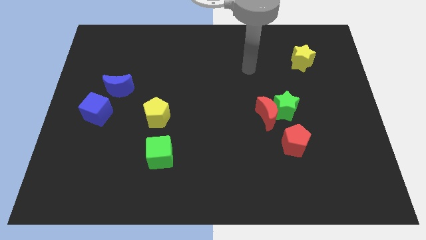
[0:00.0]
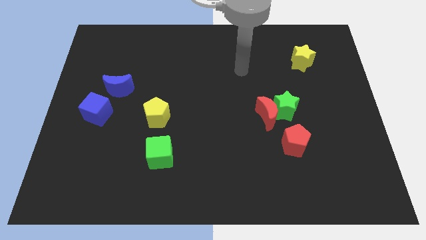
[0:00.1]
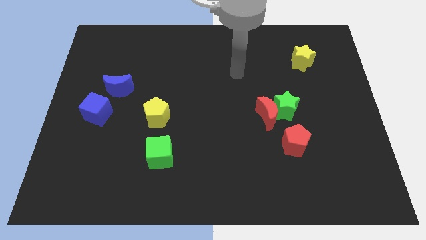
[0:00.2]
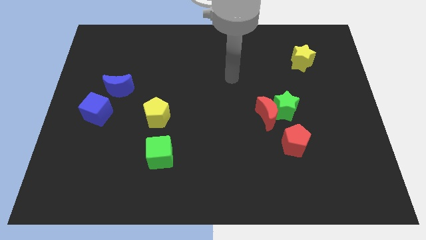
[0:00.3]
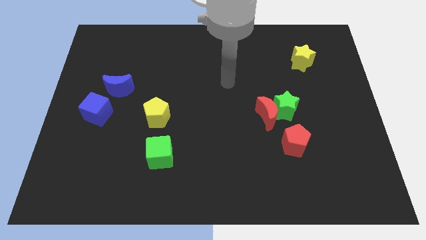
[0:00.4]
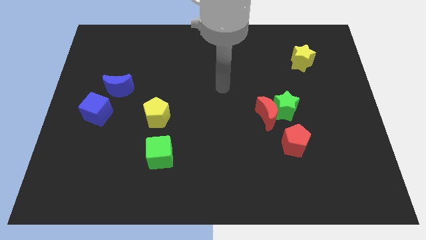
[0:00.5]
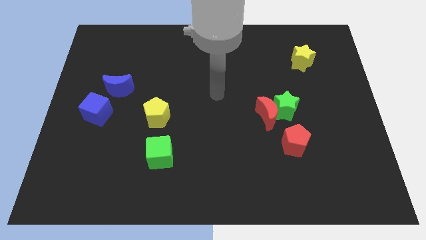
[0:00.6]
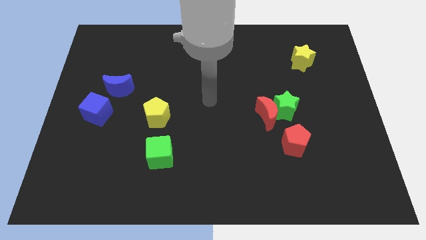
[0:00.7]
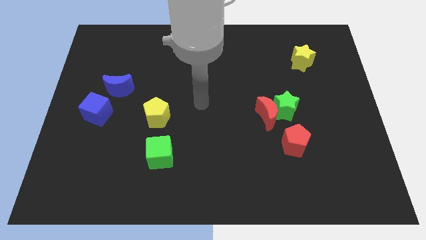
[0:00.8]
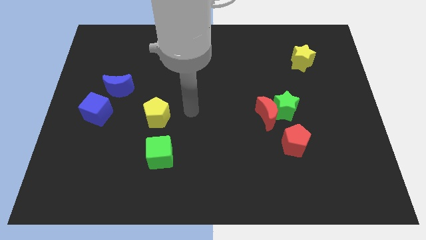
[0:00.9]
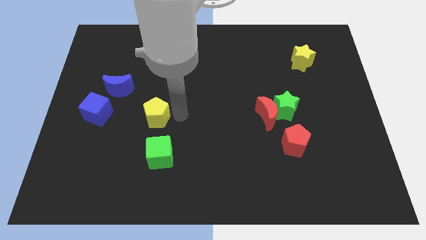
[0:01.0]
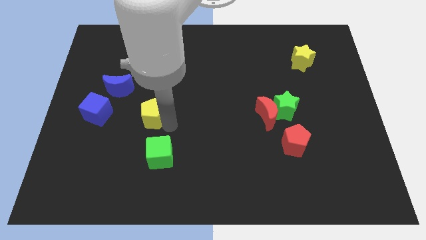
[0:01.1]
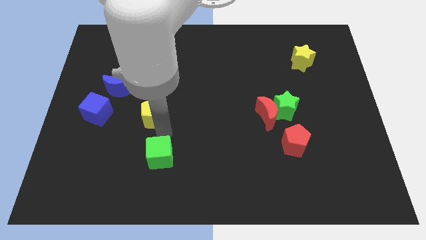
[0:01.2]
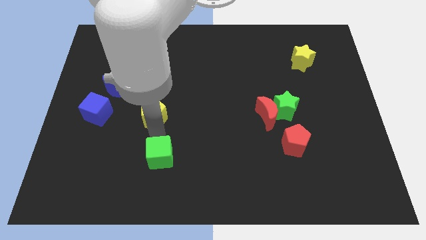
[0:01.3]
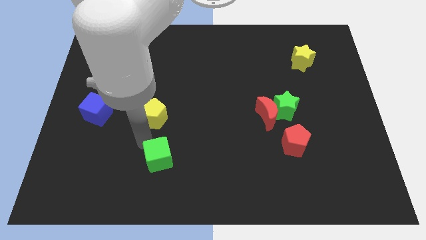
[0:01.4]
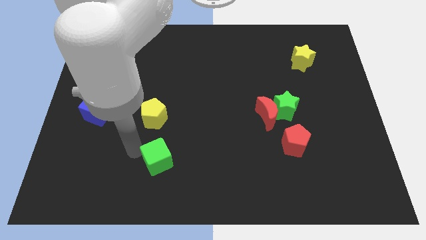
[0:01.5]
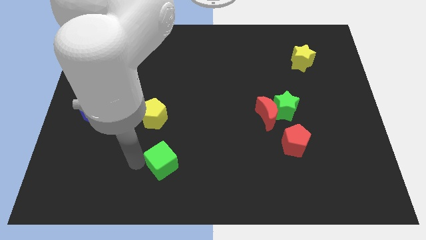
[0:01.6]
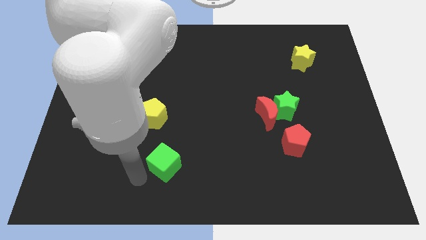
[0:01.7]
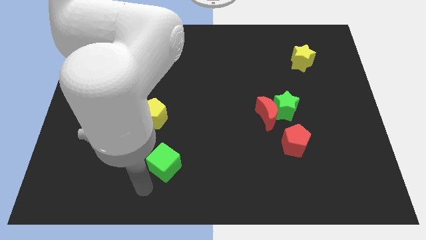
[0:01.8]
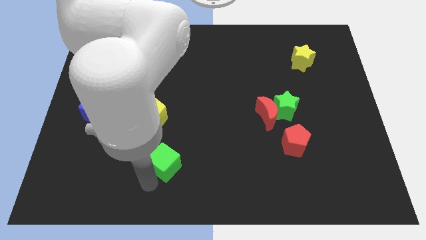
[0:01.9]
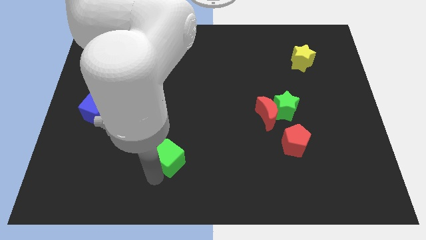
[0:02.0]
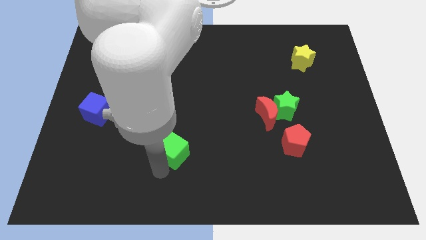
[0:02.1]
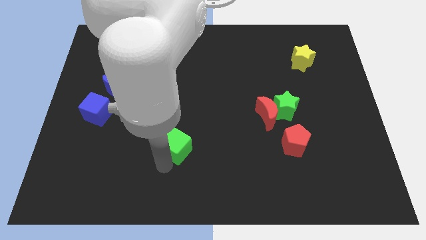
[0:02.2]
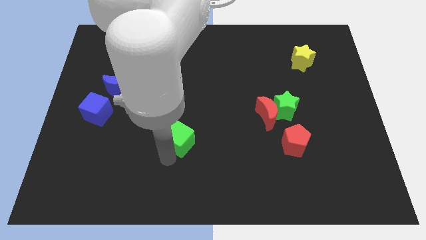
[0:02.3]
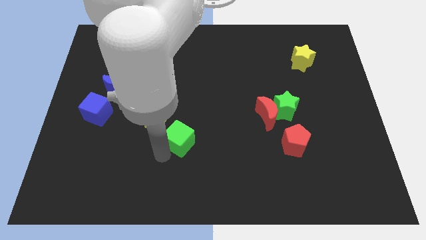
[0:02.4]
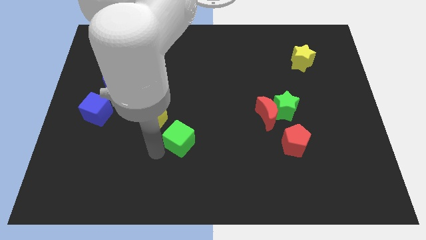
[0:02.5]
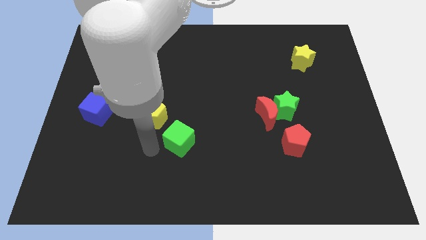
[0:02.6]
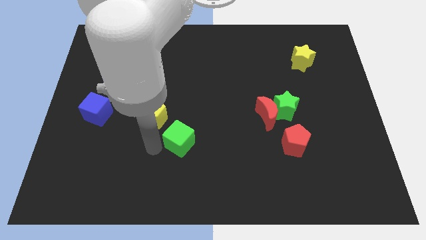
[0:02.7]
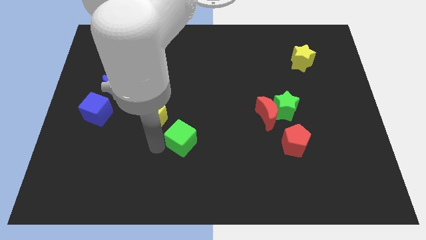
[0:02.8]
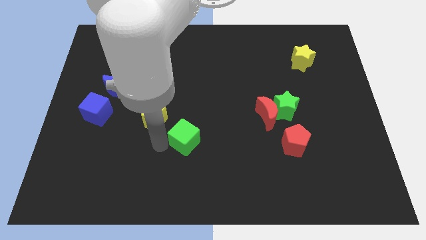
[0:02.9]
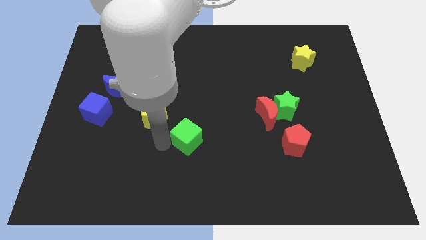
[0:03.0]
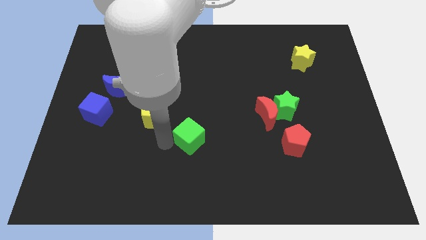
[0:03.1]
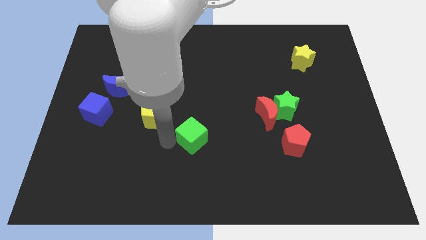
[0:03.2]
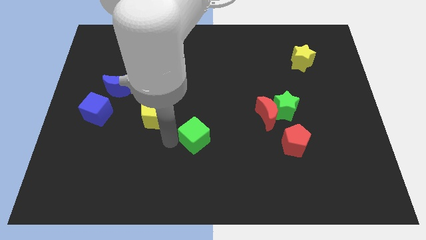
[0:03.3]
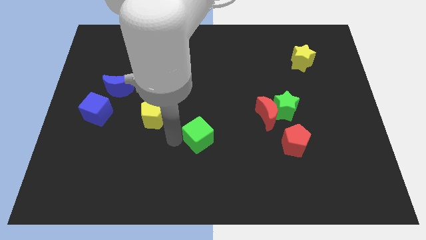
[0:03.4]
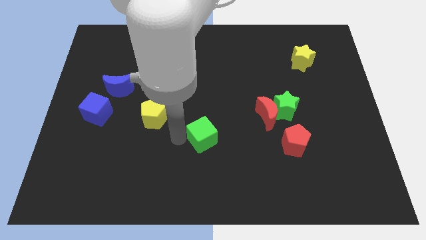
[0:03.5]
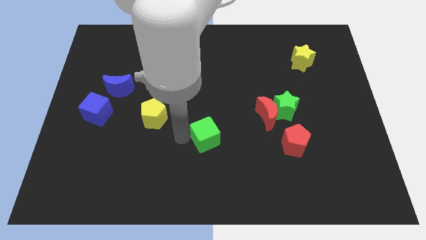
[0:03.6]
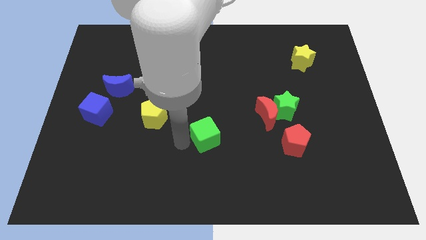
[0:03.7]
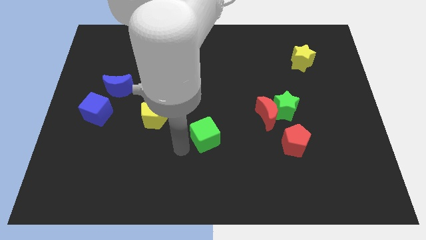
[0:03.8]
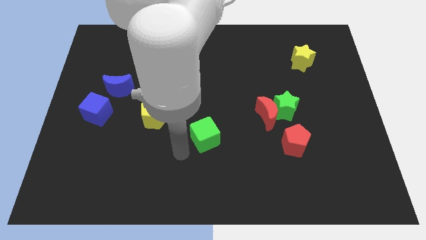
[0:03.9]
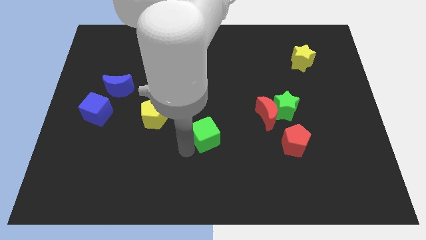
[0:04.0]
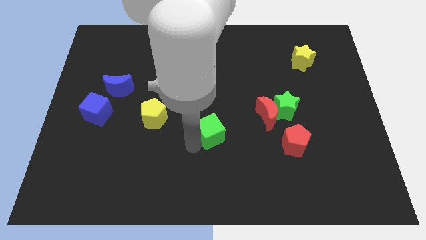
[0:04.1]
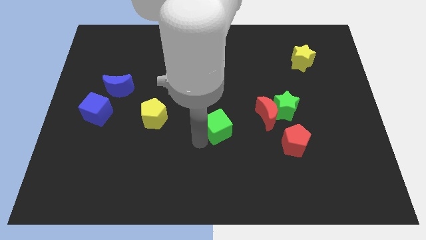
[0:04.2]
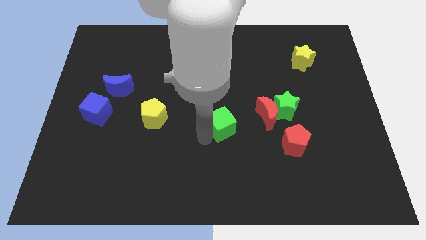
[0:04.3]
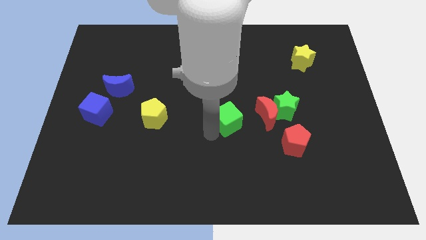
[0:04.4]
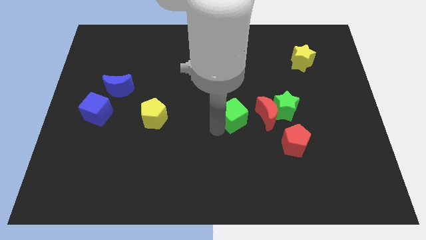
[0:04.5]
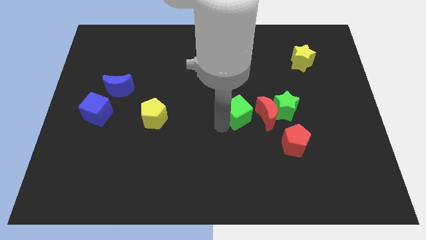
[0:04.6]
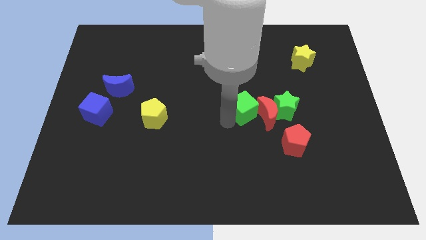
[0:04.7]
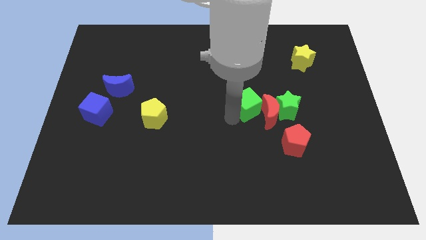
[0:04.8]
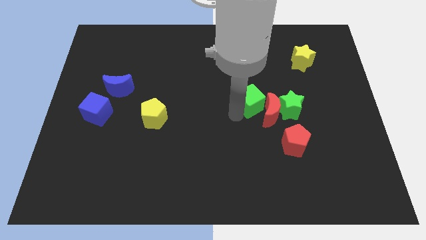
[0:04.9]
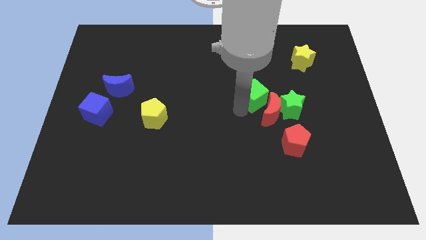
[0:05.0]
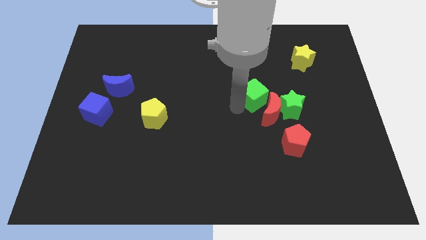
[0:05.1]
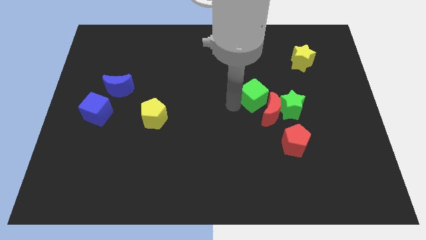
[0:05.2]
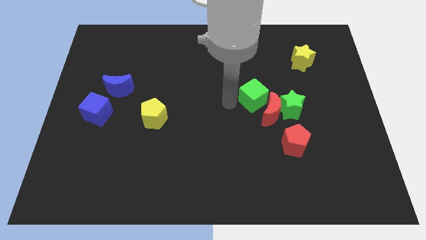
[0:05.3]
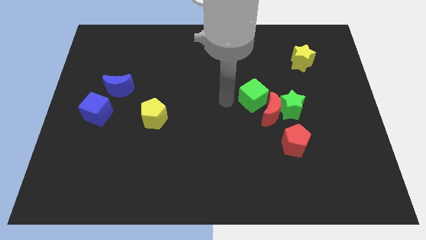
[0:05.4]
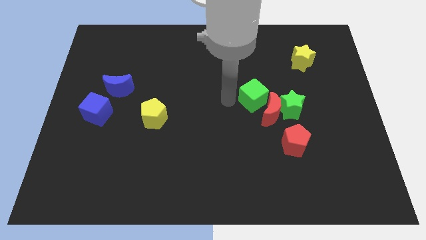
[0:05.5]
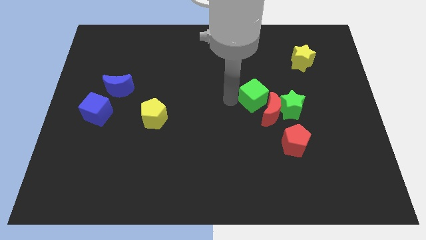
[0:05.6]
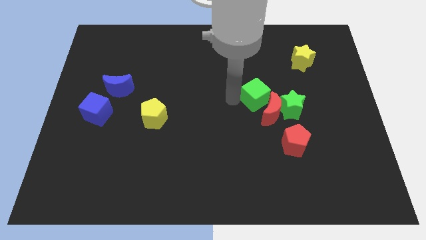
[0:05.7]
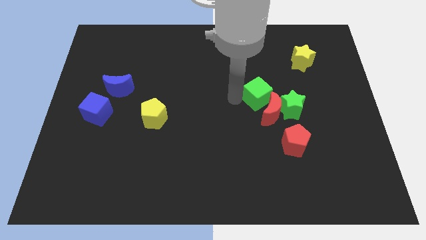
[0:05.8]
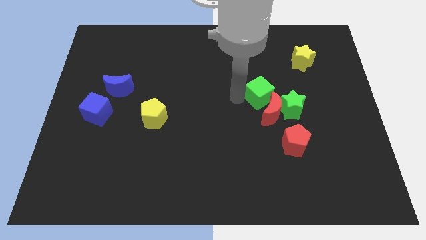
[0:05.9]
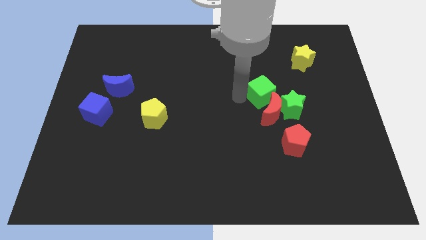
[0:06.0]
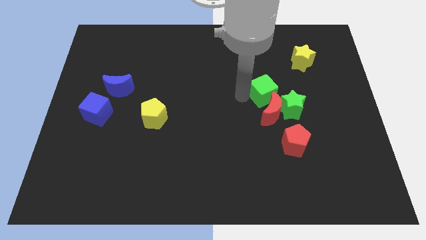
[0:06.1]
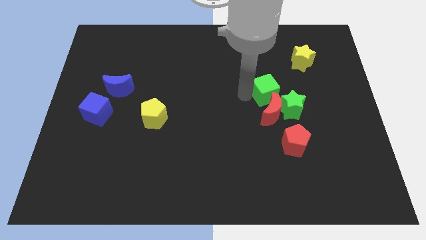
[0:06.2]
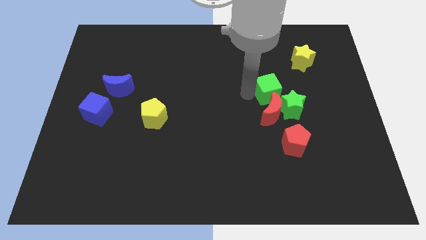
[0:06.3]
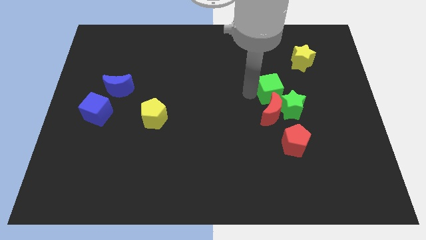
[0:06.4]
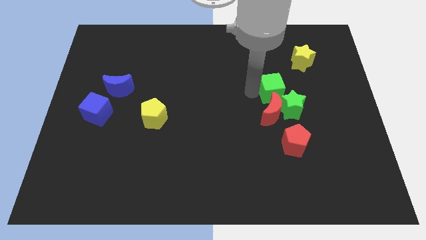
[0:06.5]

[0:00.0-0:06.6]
slide the green cube to the top side of the red pentagon
